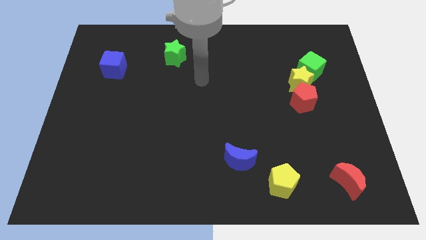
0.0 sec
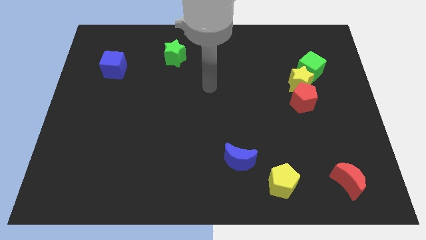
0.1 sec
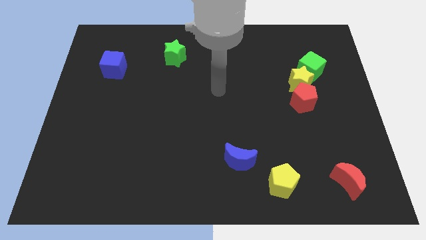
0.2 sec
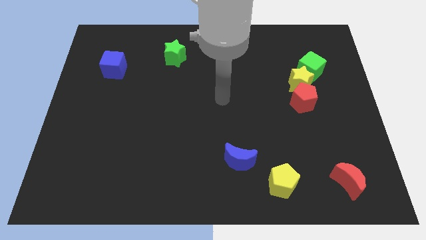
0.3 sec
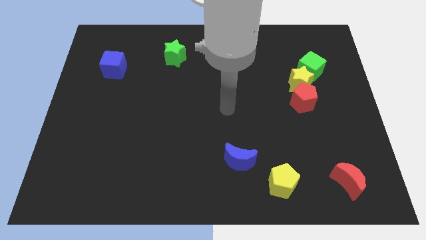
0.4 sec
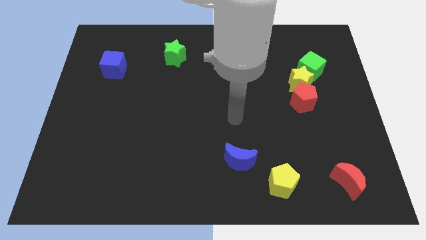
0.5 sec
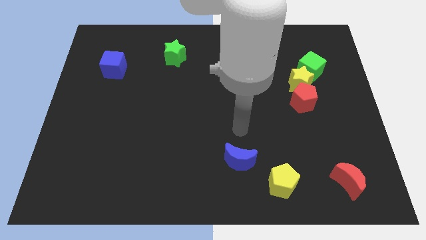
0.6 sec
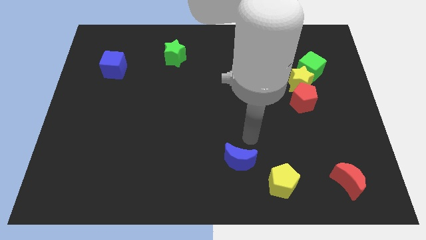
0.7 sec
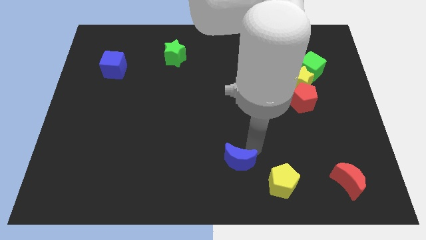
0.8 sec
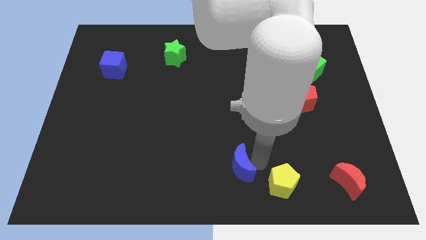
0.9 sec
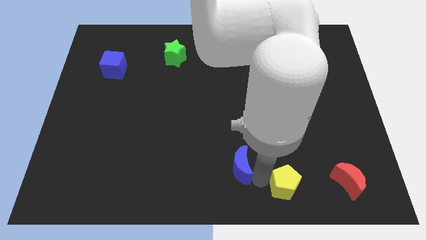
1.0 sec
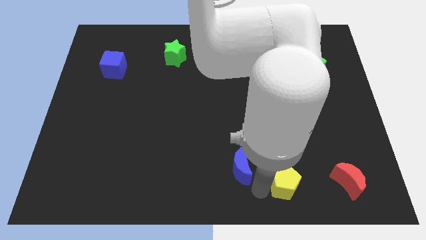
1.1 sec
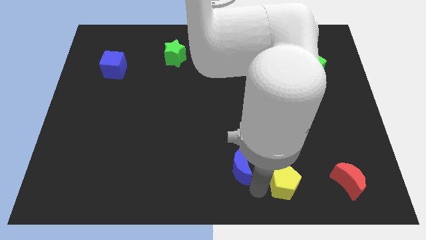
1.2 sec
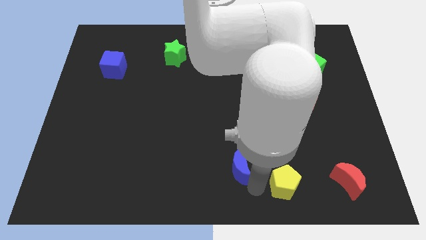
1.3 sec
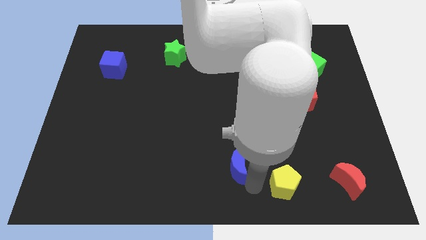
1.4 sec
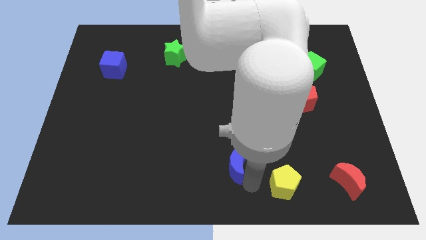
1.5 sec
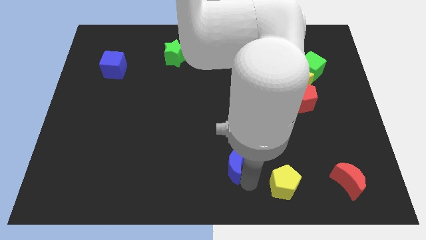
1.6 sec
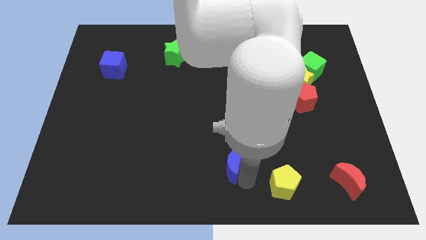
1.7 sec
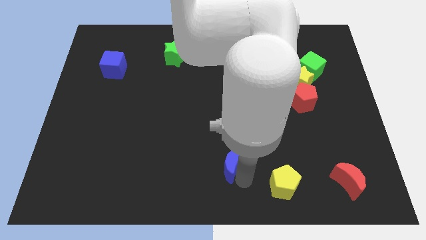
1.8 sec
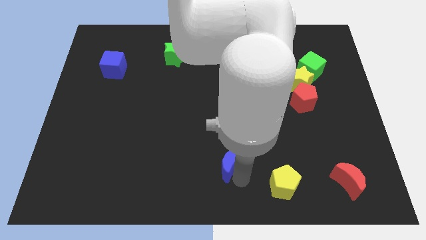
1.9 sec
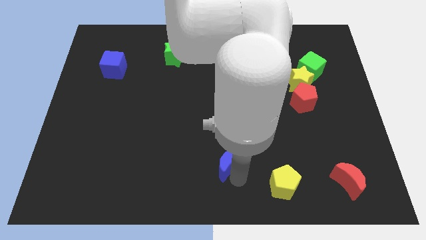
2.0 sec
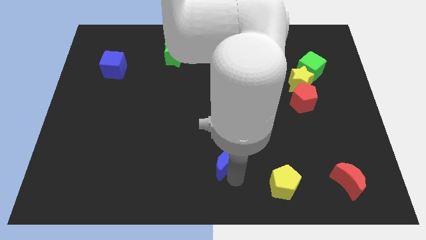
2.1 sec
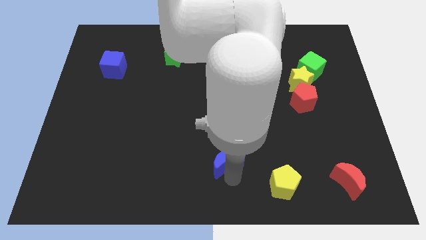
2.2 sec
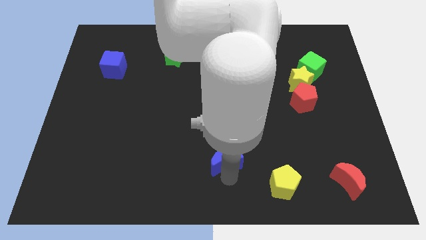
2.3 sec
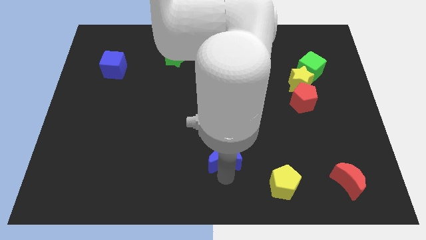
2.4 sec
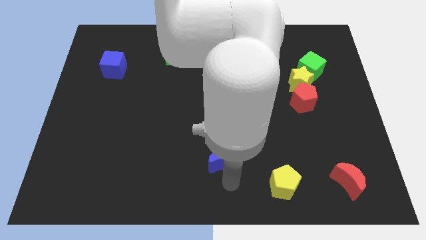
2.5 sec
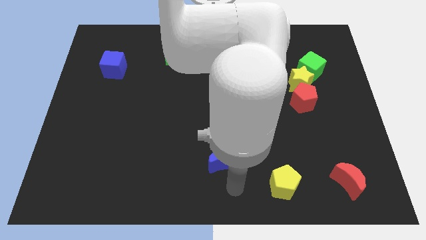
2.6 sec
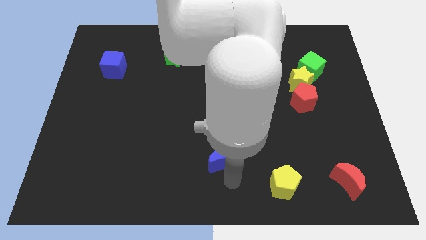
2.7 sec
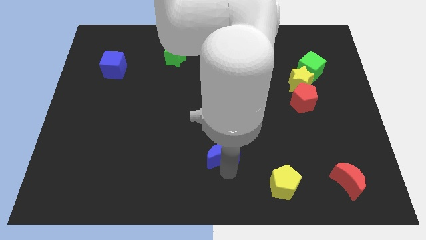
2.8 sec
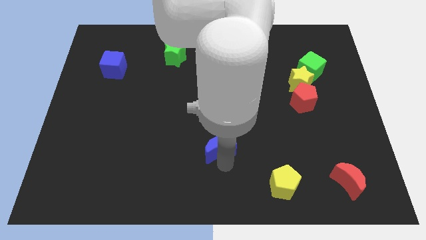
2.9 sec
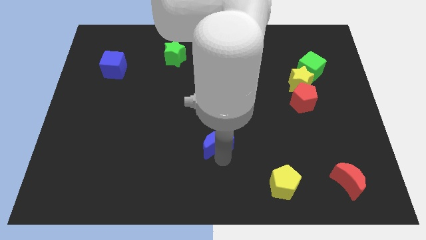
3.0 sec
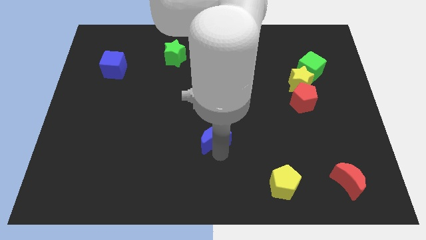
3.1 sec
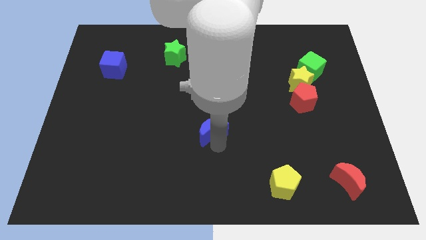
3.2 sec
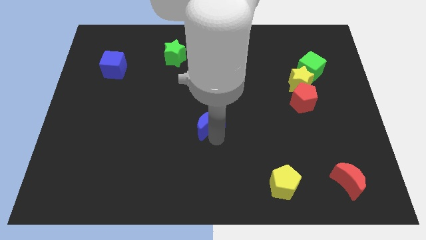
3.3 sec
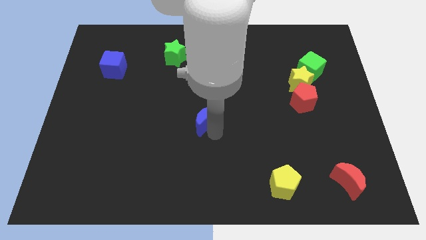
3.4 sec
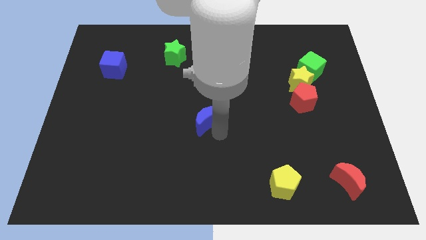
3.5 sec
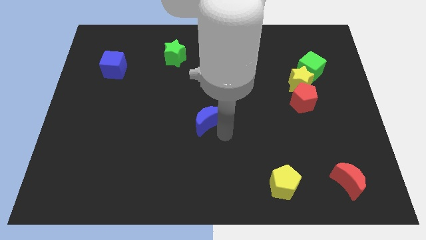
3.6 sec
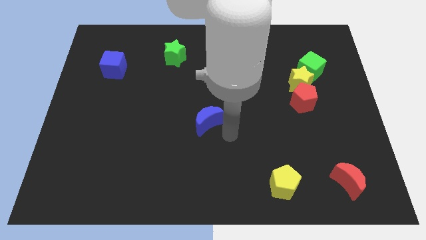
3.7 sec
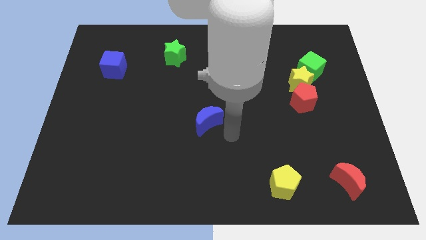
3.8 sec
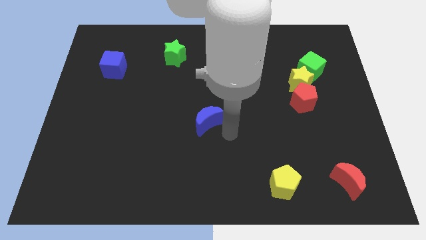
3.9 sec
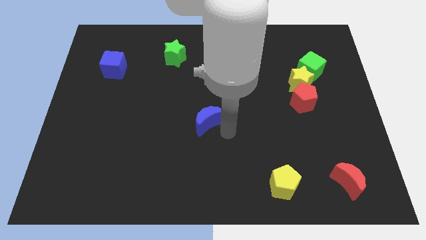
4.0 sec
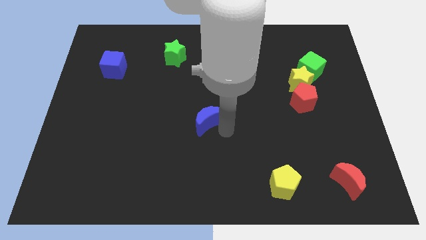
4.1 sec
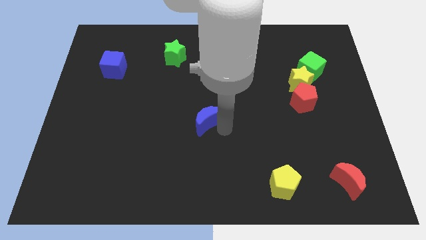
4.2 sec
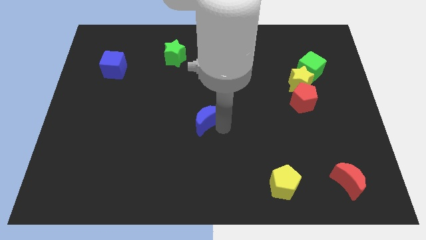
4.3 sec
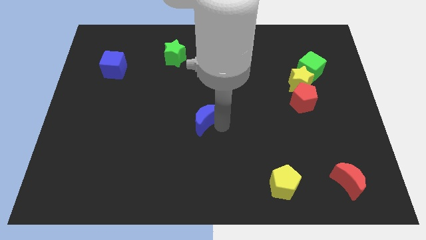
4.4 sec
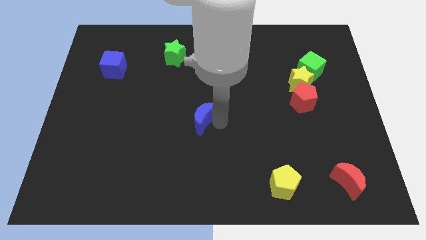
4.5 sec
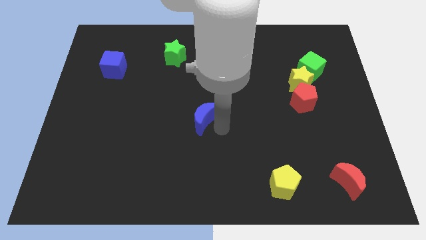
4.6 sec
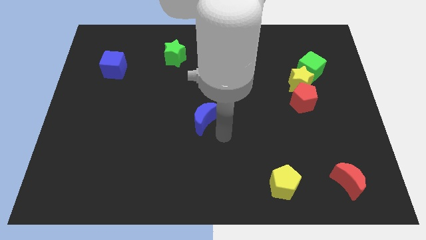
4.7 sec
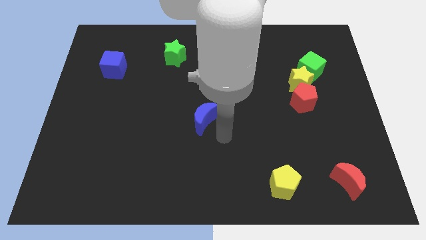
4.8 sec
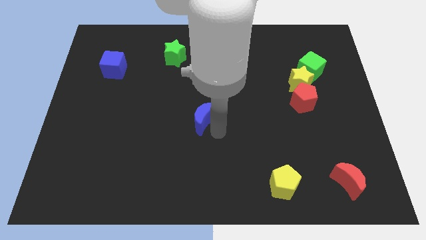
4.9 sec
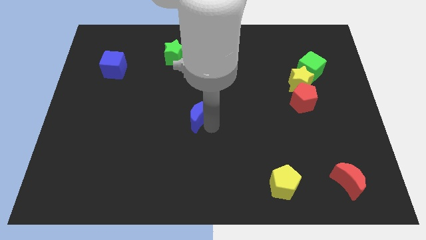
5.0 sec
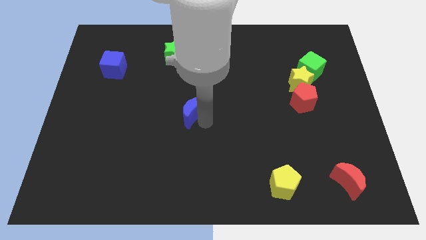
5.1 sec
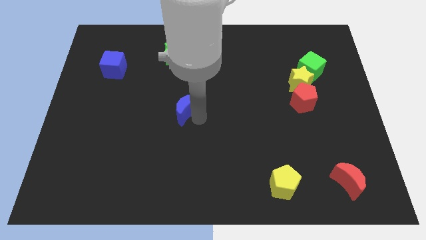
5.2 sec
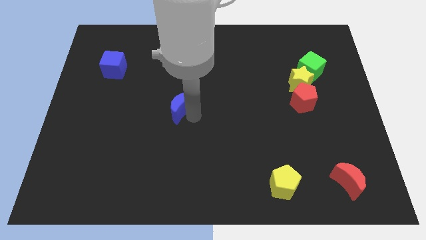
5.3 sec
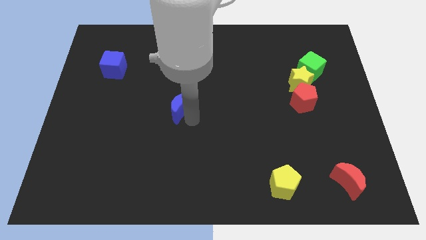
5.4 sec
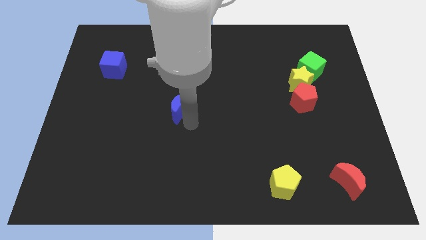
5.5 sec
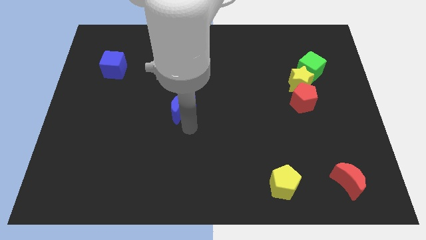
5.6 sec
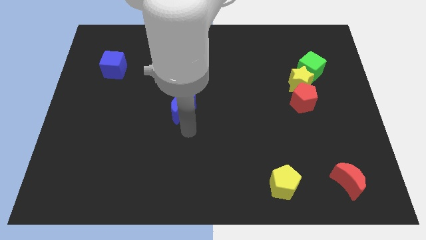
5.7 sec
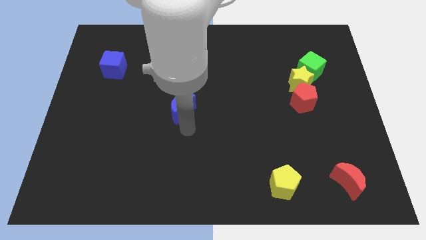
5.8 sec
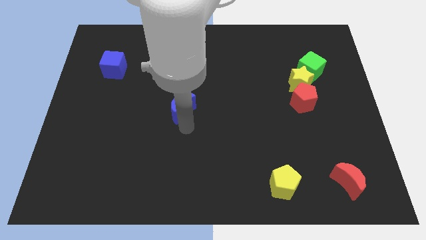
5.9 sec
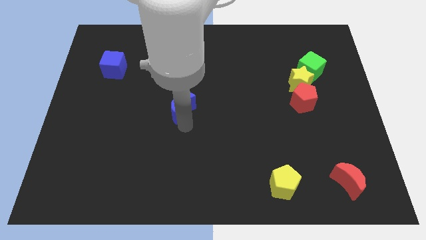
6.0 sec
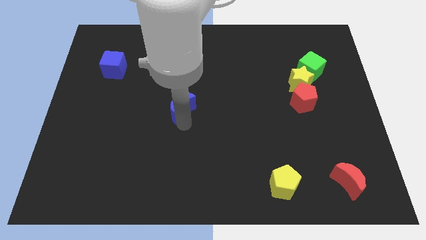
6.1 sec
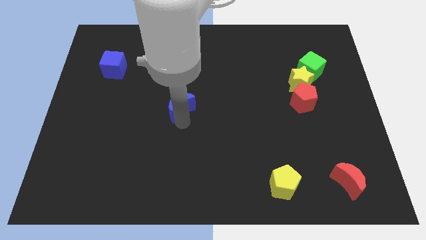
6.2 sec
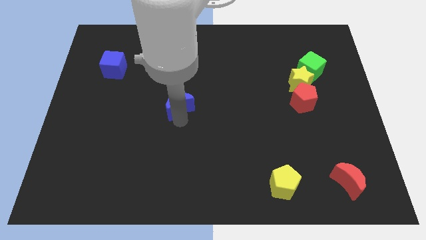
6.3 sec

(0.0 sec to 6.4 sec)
move the blue moon up and to the left diagonally

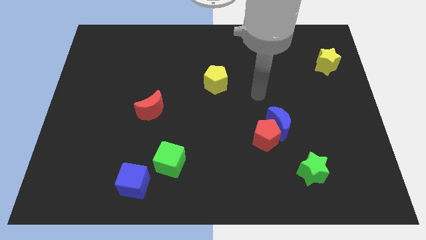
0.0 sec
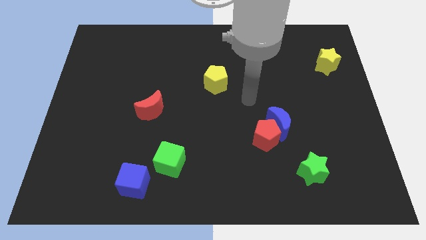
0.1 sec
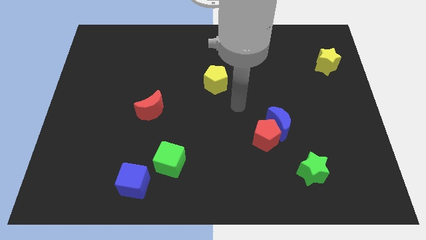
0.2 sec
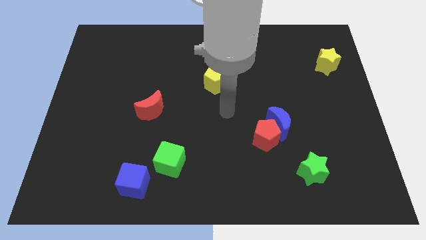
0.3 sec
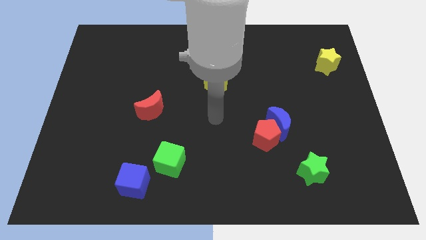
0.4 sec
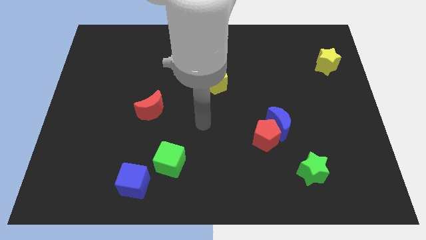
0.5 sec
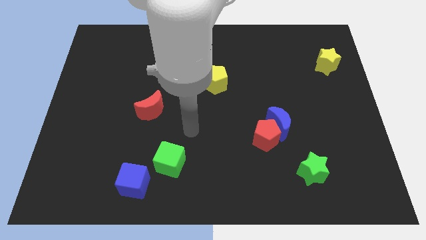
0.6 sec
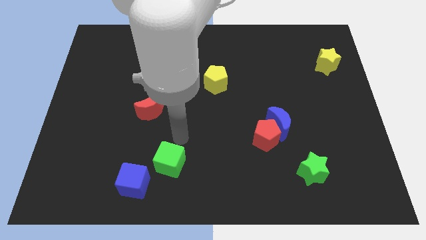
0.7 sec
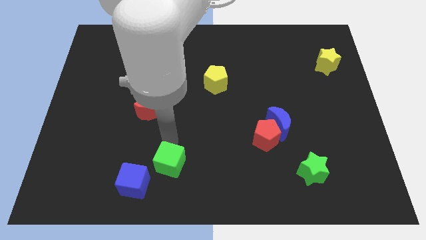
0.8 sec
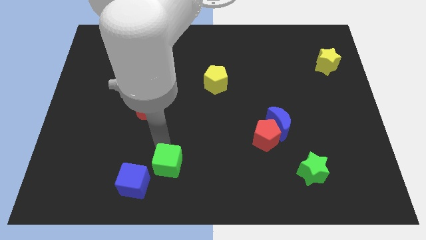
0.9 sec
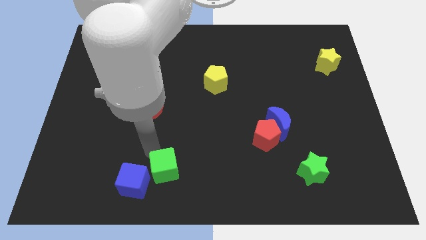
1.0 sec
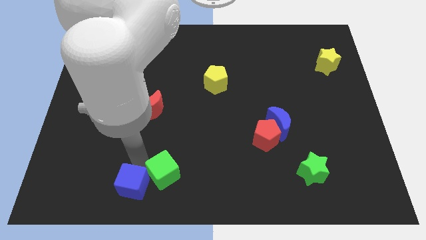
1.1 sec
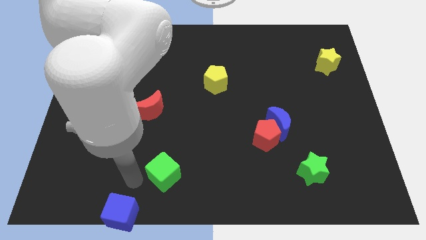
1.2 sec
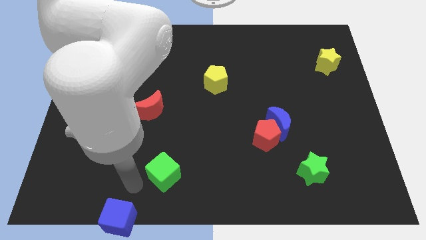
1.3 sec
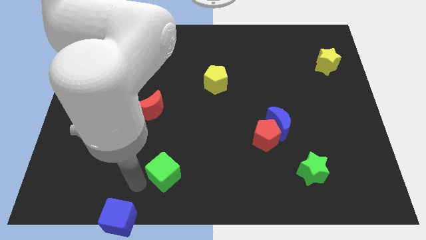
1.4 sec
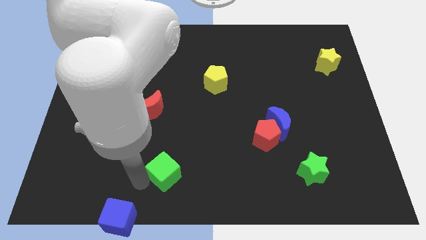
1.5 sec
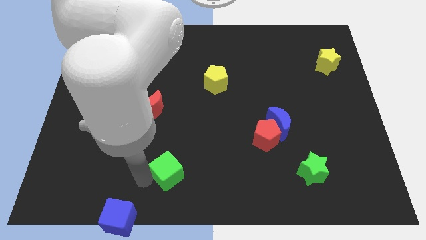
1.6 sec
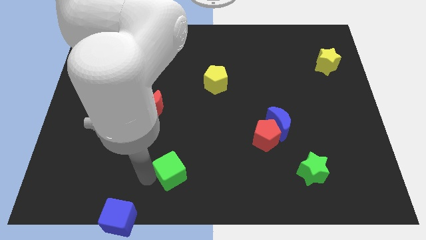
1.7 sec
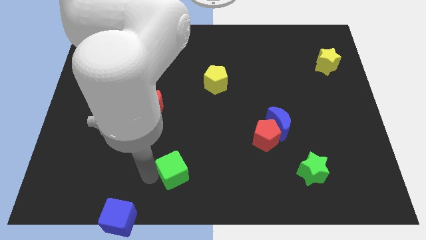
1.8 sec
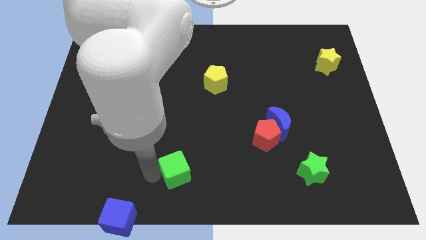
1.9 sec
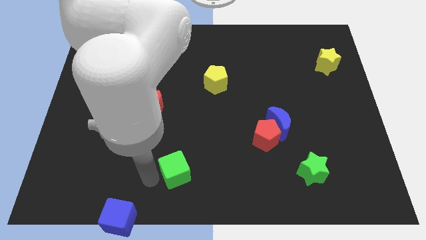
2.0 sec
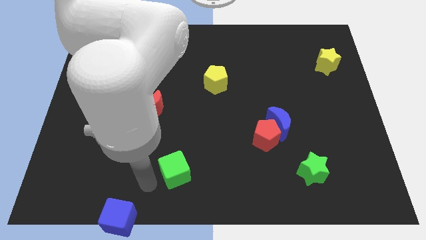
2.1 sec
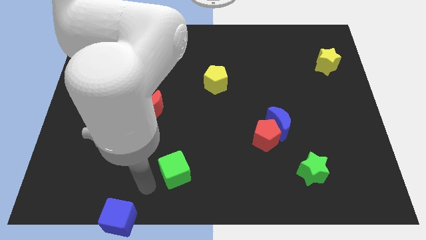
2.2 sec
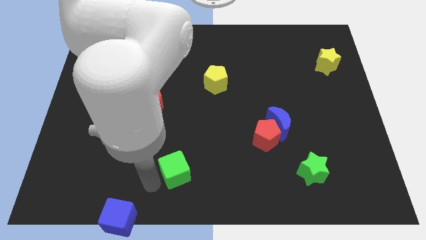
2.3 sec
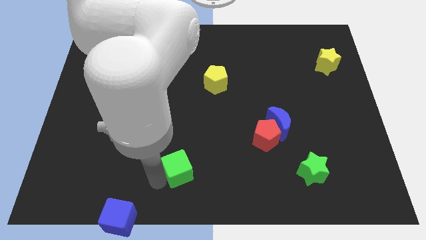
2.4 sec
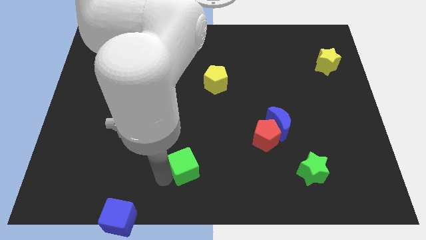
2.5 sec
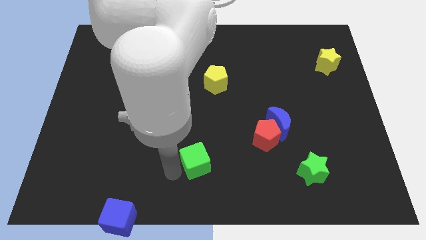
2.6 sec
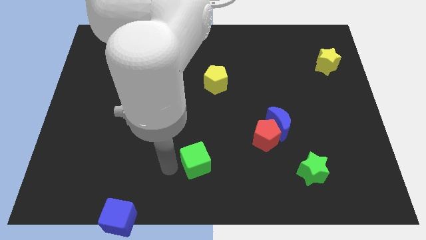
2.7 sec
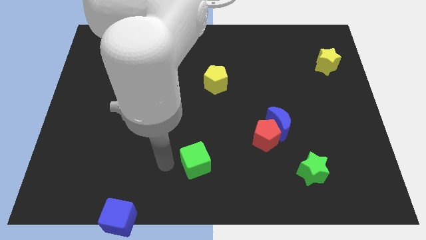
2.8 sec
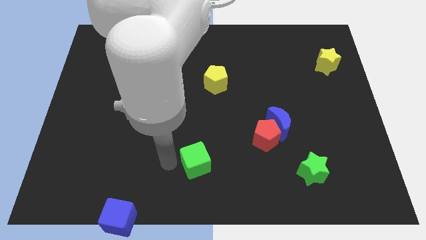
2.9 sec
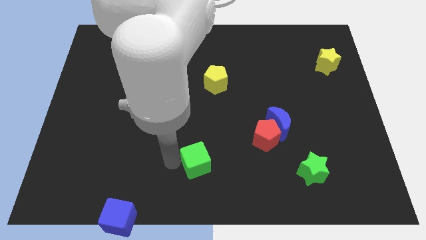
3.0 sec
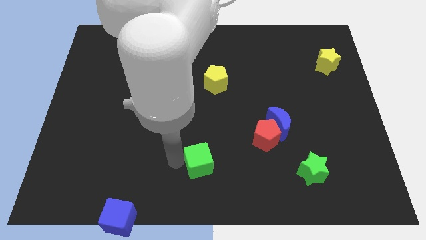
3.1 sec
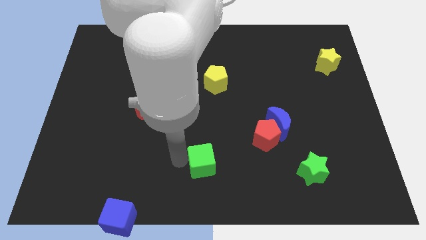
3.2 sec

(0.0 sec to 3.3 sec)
slide the green cube a little to the right
